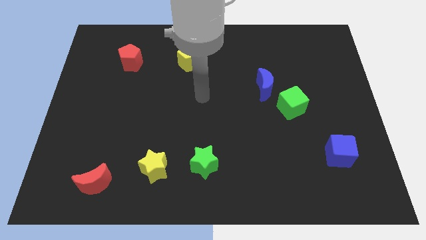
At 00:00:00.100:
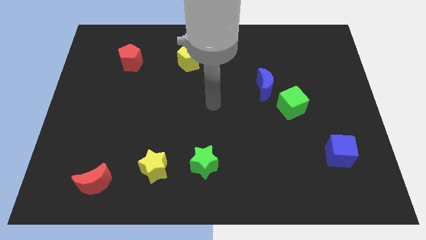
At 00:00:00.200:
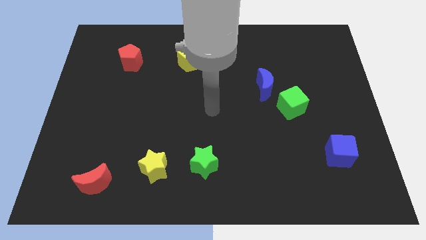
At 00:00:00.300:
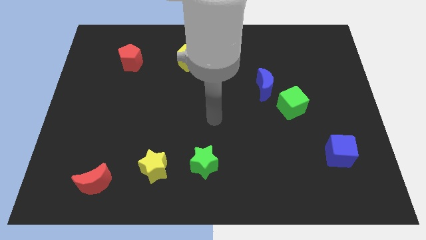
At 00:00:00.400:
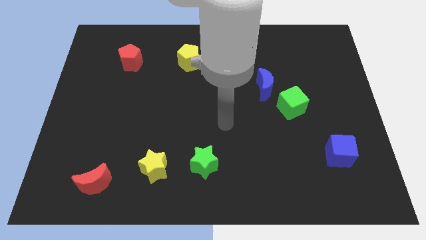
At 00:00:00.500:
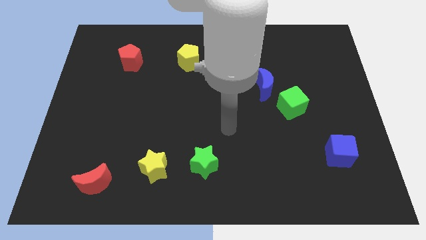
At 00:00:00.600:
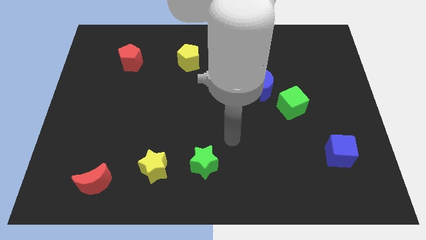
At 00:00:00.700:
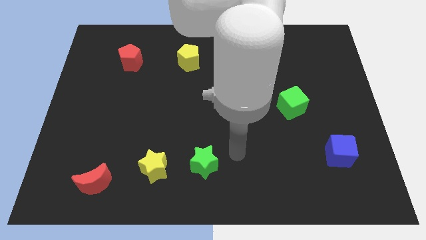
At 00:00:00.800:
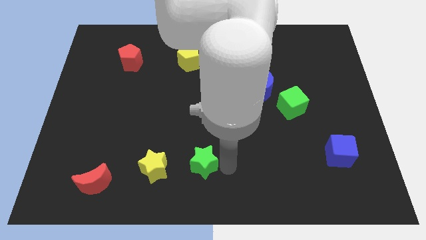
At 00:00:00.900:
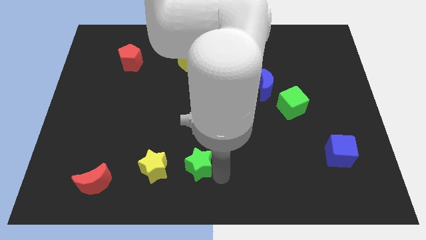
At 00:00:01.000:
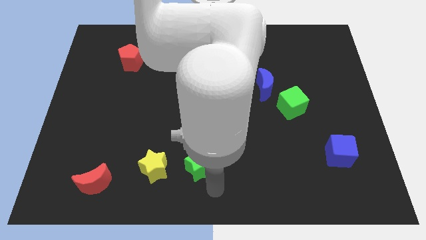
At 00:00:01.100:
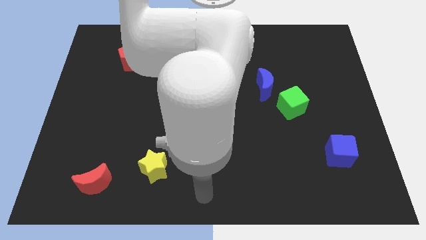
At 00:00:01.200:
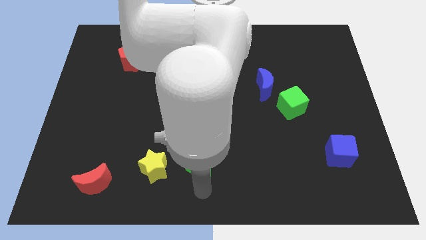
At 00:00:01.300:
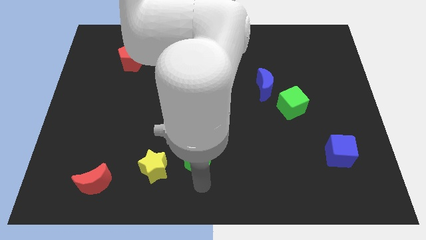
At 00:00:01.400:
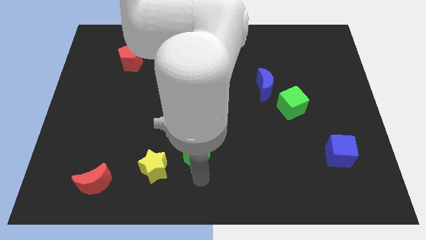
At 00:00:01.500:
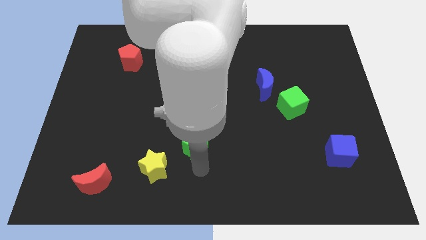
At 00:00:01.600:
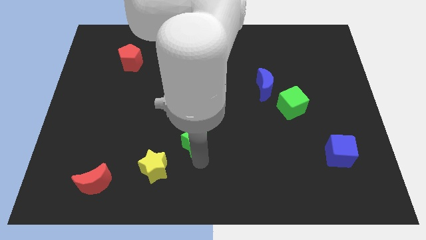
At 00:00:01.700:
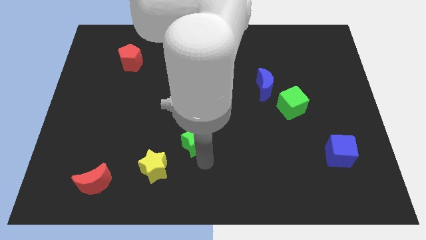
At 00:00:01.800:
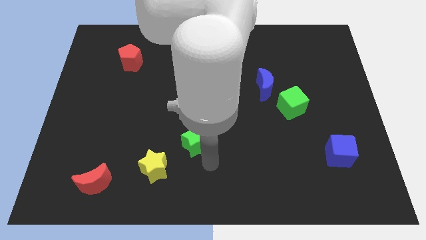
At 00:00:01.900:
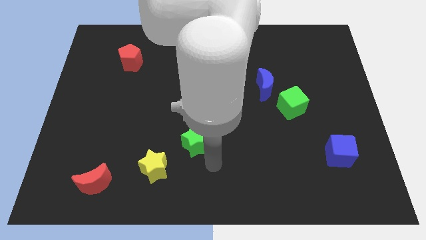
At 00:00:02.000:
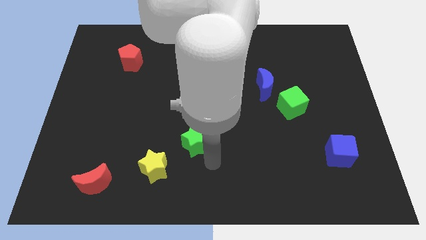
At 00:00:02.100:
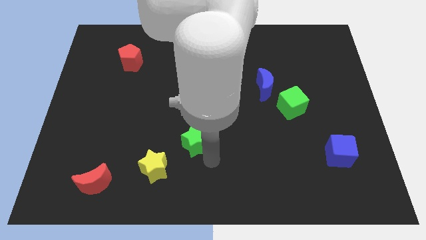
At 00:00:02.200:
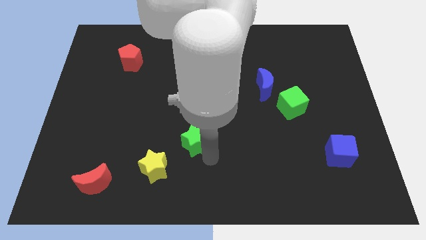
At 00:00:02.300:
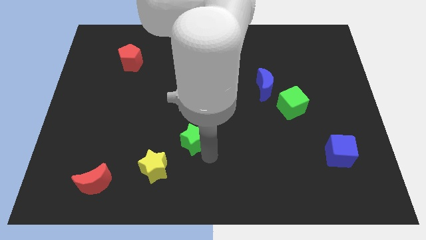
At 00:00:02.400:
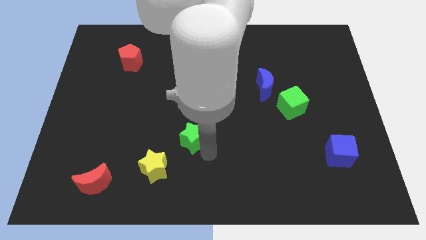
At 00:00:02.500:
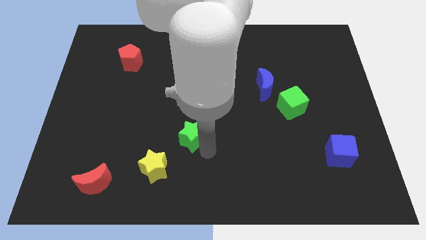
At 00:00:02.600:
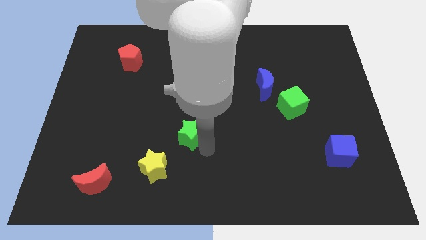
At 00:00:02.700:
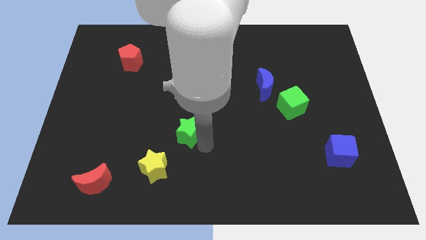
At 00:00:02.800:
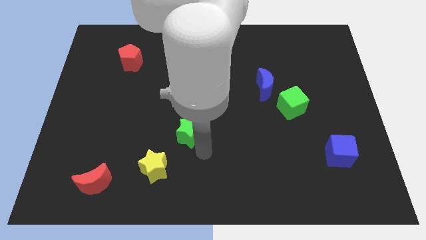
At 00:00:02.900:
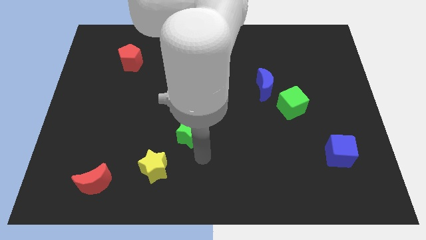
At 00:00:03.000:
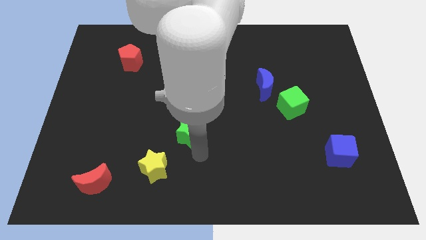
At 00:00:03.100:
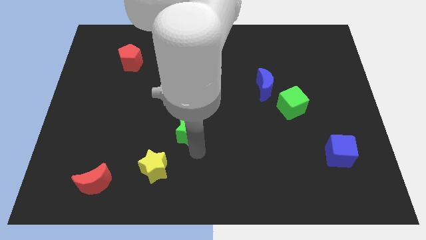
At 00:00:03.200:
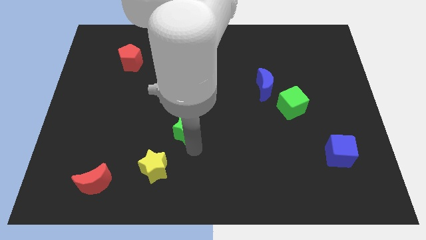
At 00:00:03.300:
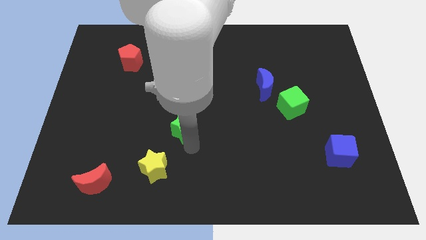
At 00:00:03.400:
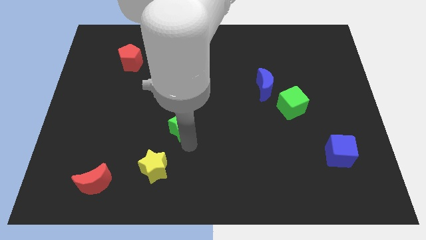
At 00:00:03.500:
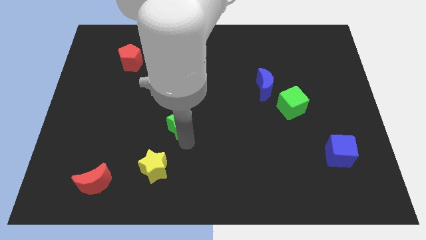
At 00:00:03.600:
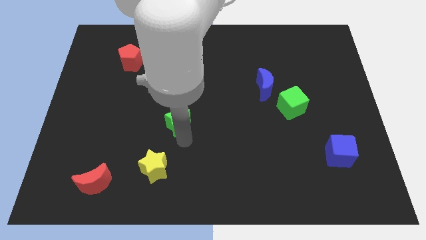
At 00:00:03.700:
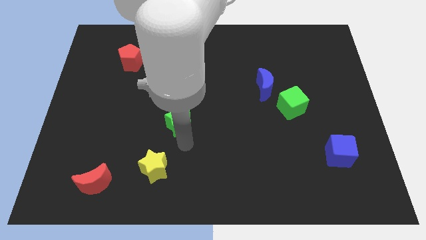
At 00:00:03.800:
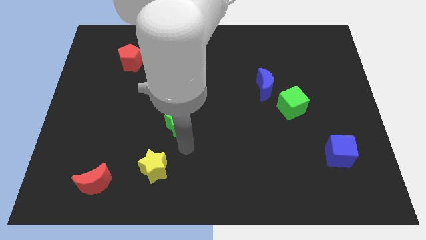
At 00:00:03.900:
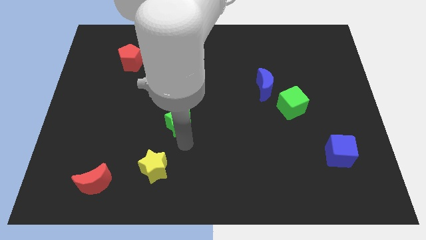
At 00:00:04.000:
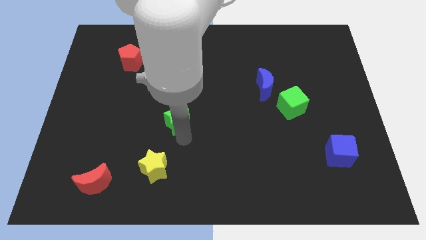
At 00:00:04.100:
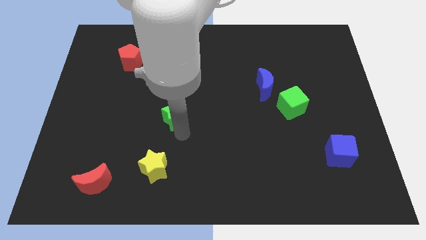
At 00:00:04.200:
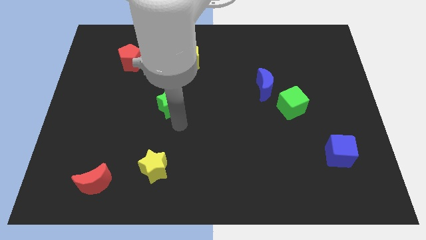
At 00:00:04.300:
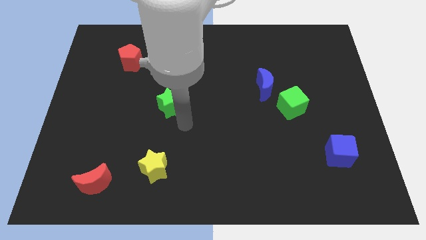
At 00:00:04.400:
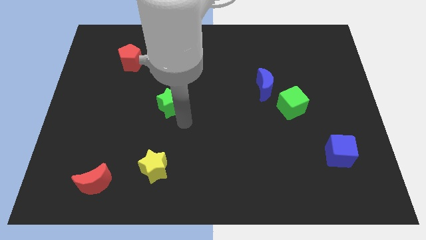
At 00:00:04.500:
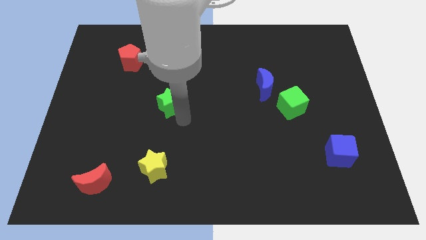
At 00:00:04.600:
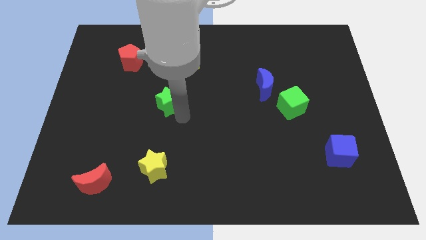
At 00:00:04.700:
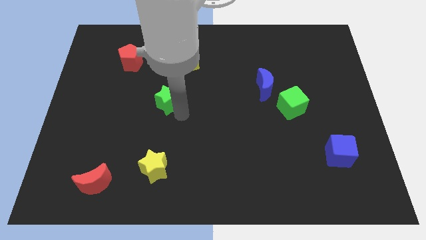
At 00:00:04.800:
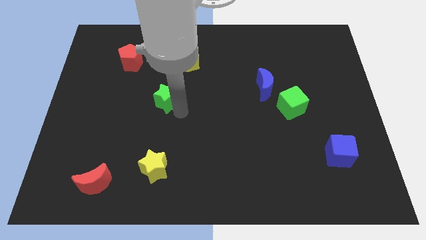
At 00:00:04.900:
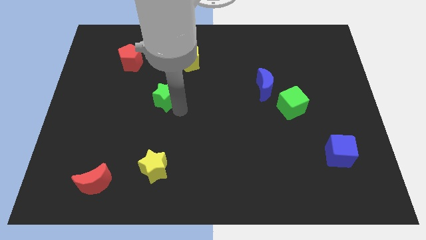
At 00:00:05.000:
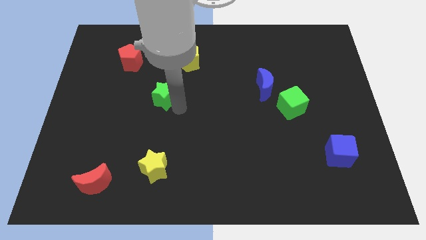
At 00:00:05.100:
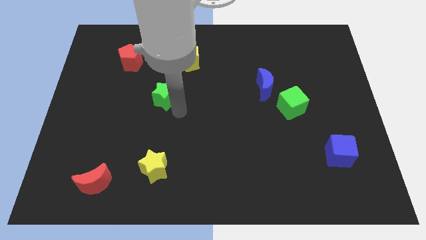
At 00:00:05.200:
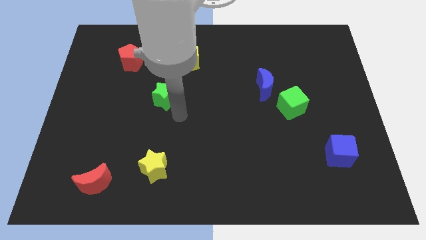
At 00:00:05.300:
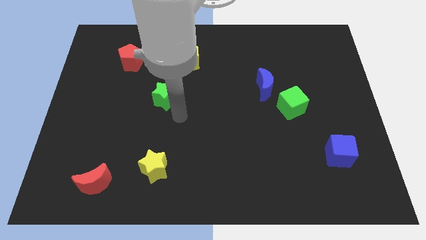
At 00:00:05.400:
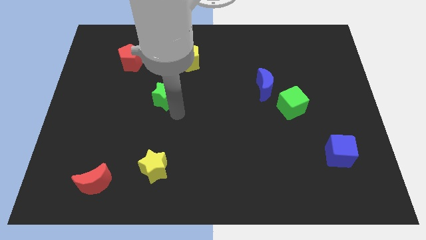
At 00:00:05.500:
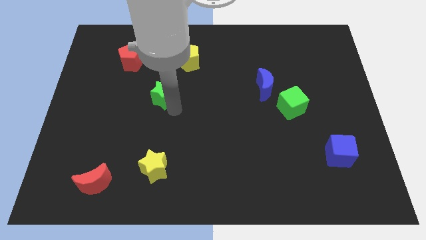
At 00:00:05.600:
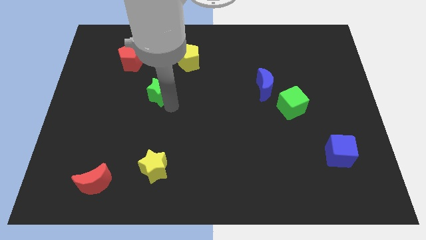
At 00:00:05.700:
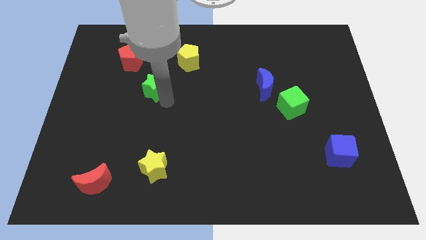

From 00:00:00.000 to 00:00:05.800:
push the green star to the bottom right side of the red pentagon

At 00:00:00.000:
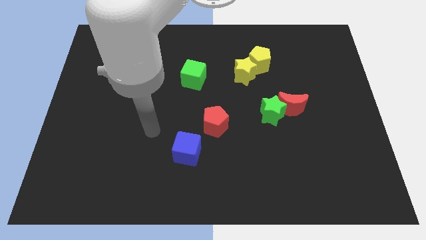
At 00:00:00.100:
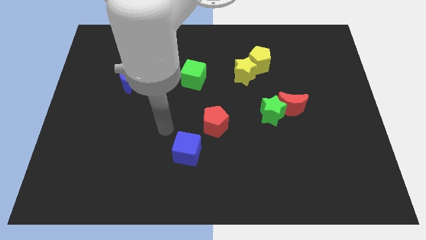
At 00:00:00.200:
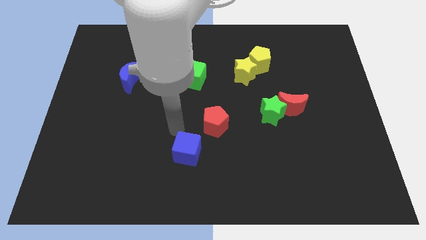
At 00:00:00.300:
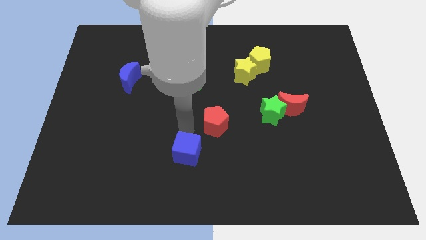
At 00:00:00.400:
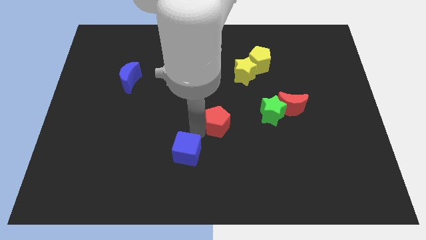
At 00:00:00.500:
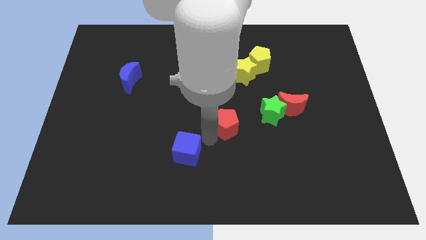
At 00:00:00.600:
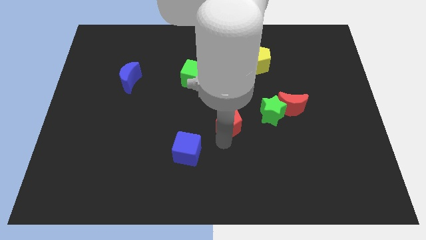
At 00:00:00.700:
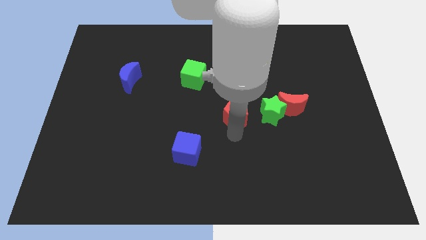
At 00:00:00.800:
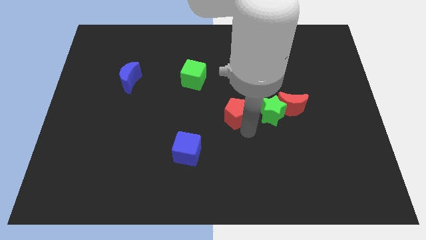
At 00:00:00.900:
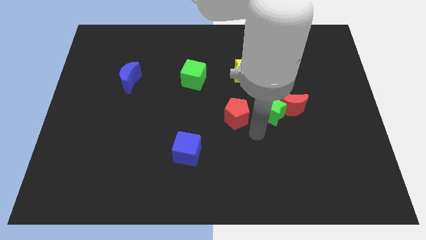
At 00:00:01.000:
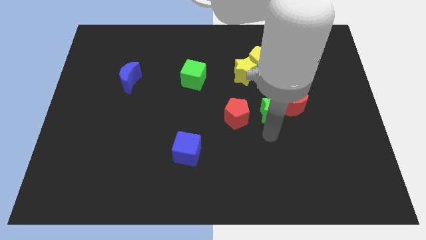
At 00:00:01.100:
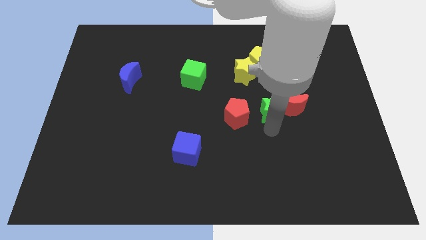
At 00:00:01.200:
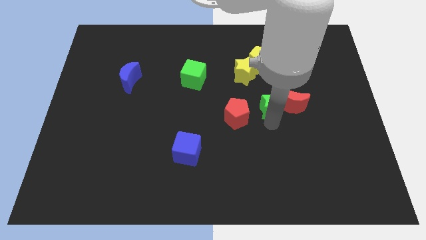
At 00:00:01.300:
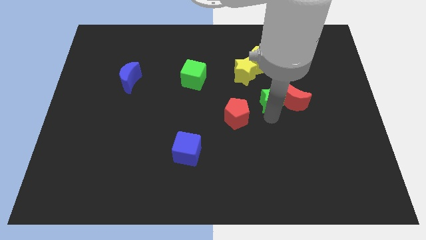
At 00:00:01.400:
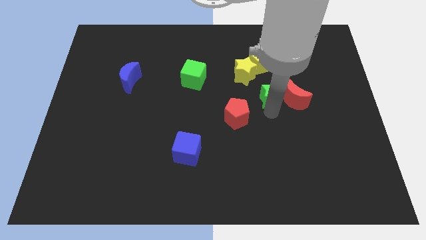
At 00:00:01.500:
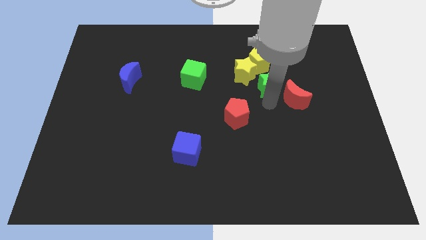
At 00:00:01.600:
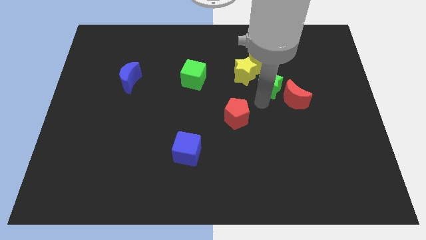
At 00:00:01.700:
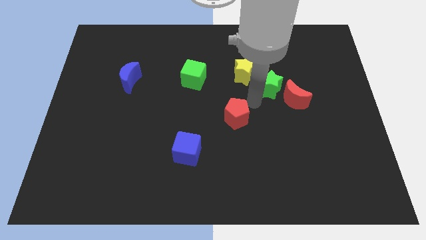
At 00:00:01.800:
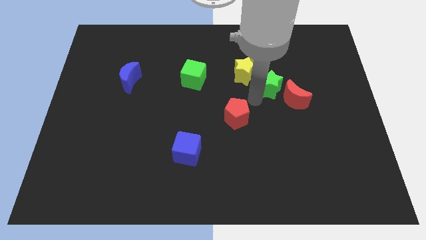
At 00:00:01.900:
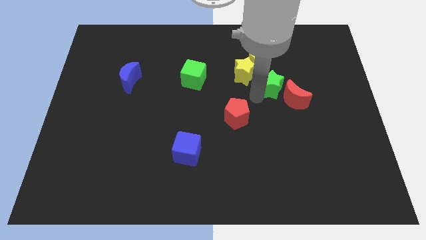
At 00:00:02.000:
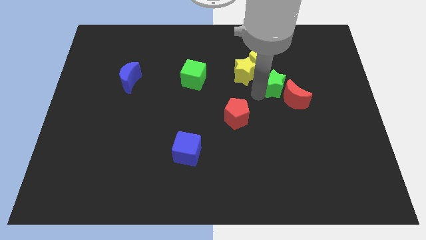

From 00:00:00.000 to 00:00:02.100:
push the green star to the top of the red moon
